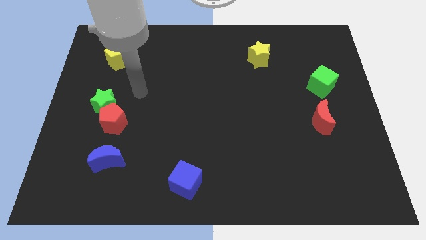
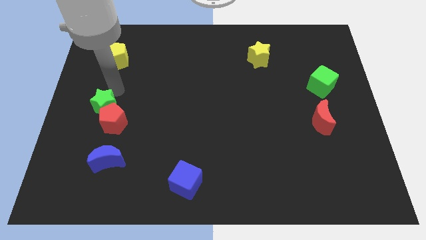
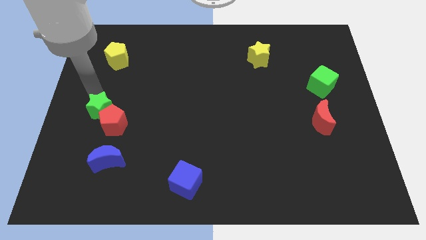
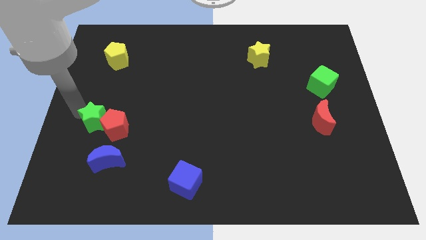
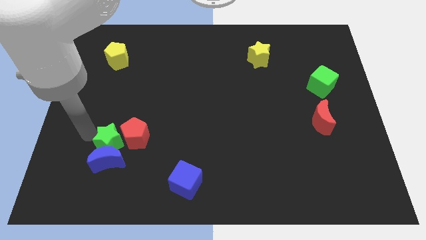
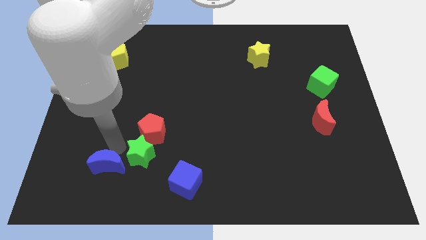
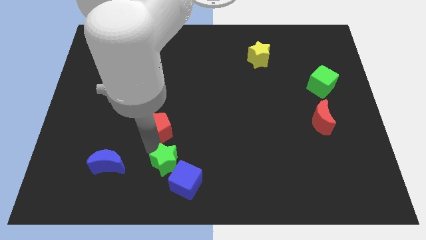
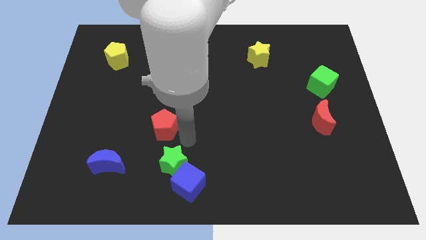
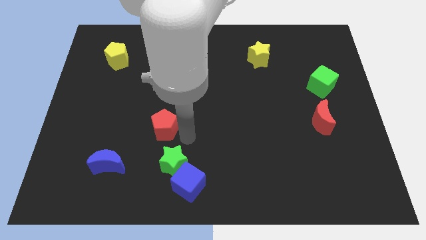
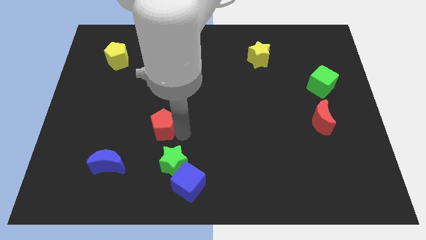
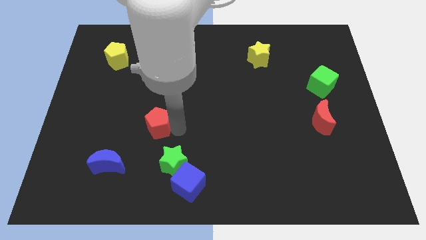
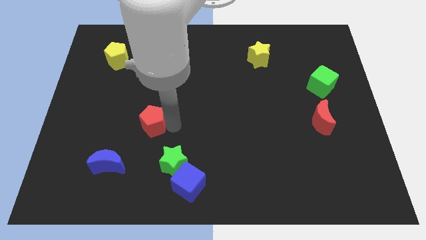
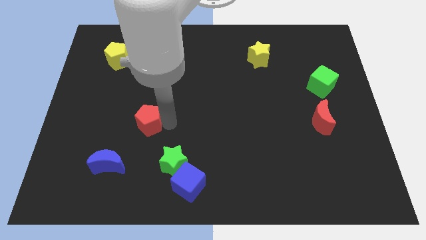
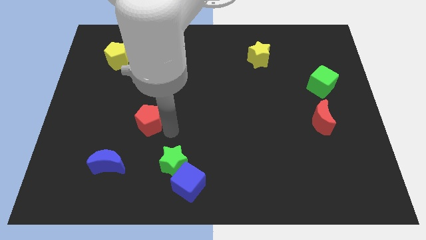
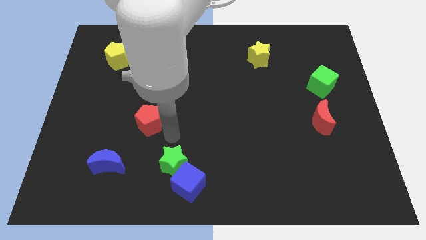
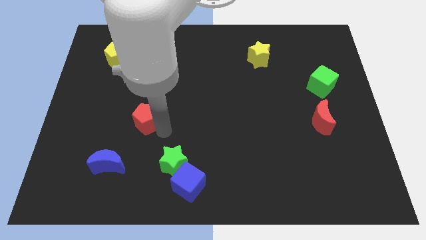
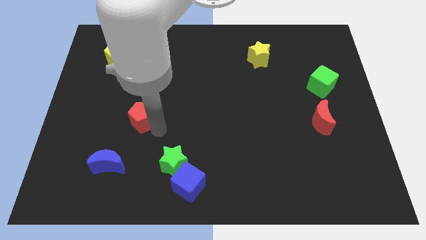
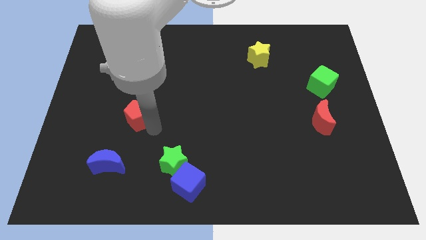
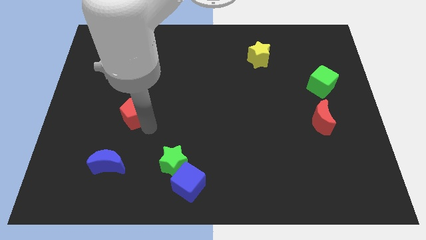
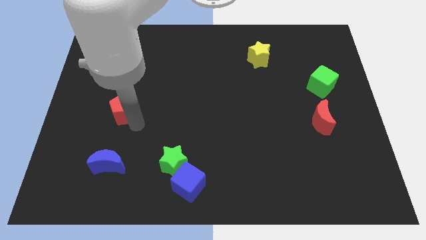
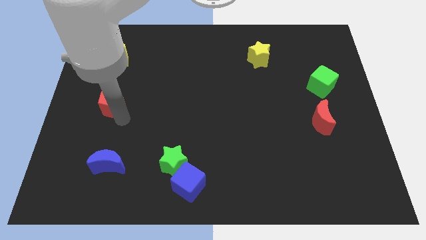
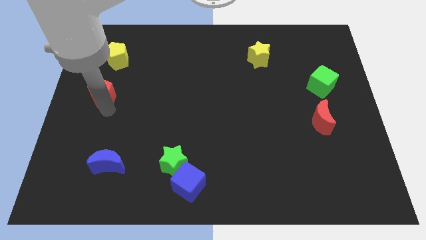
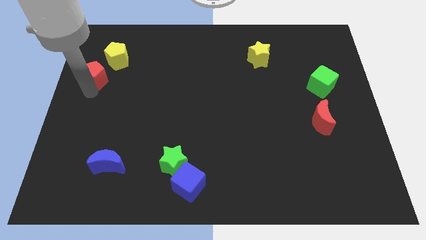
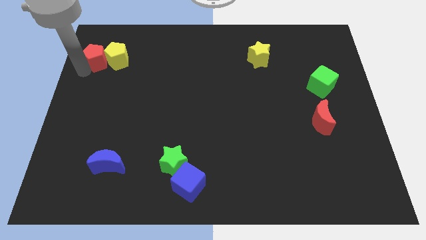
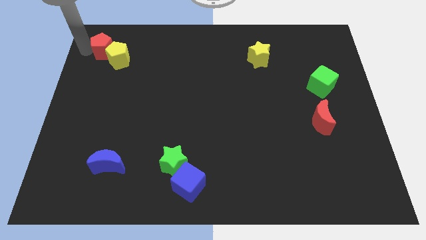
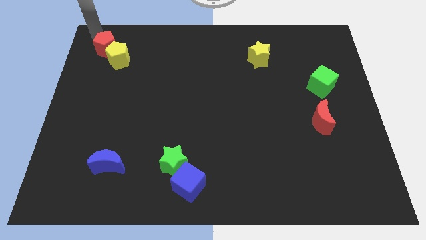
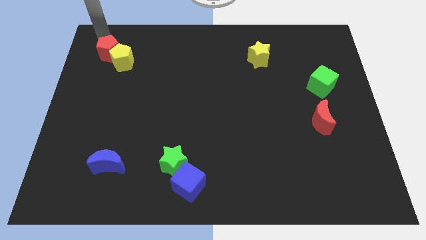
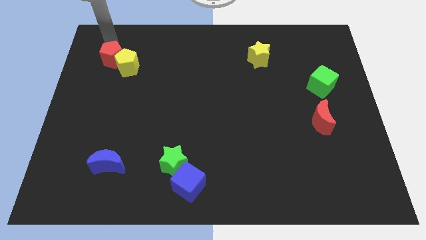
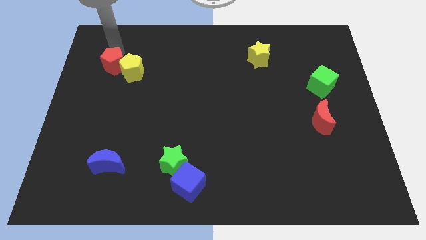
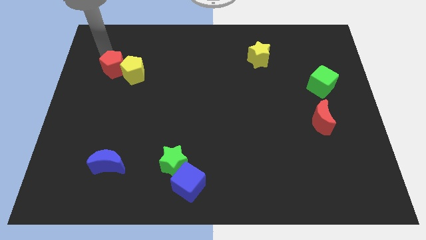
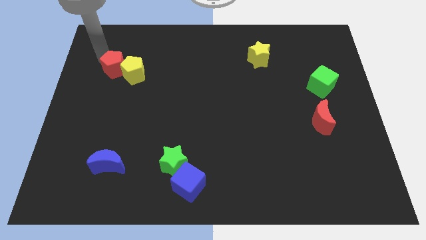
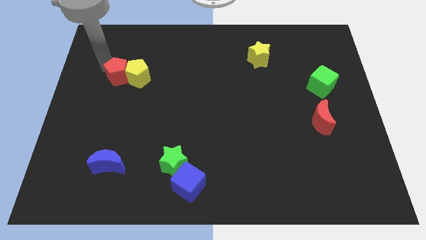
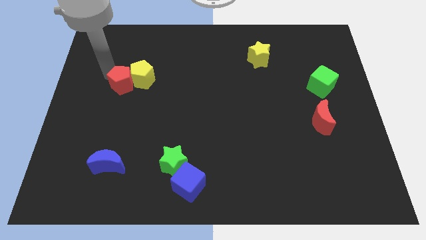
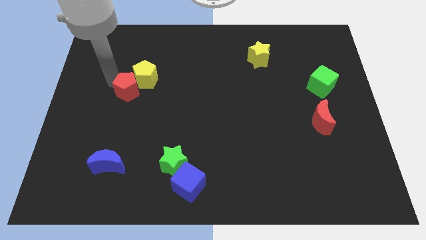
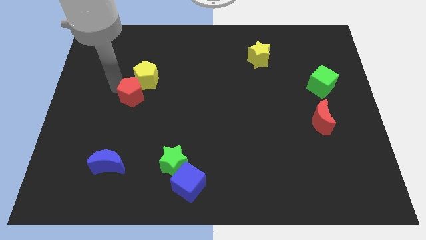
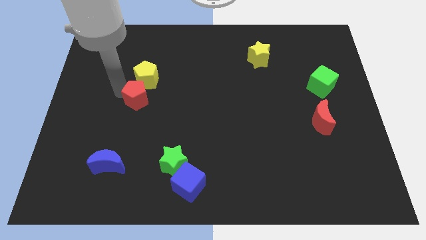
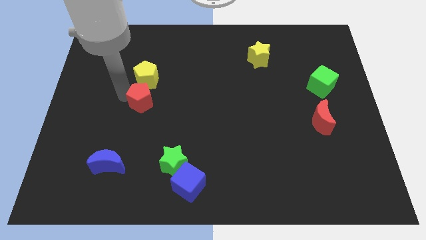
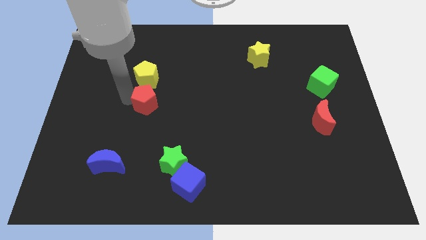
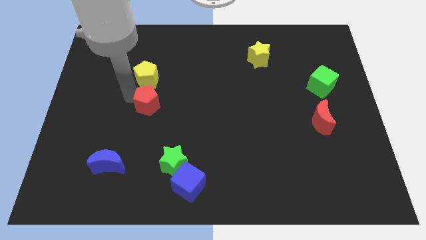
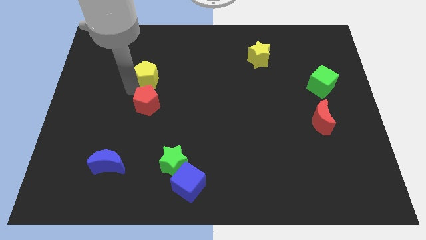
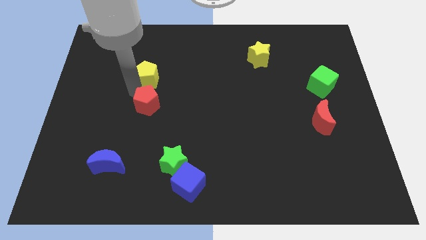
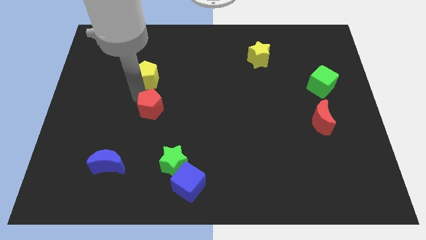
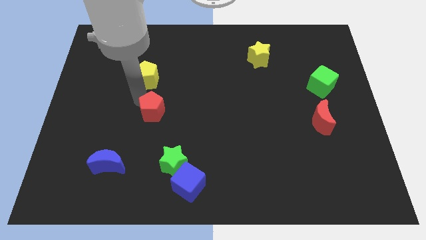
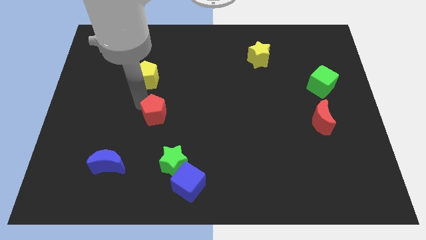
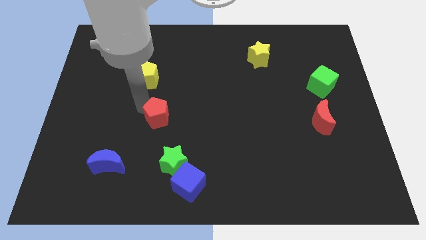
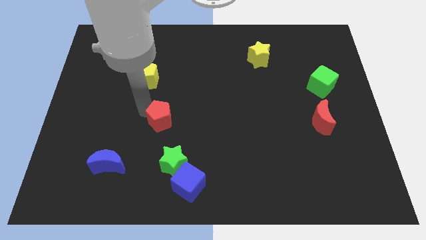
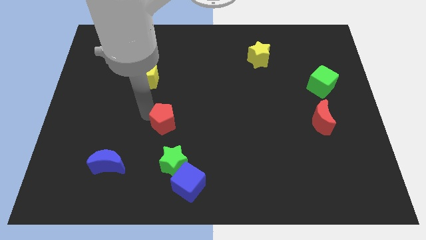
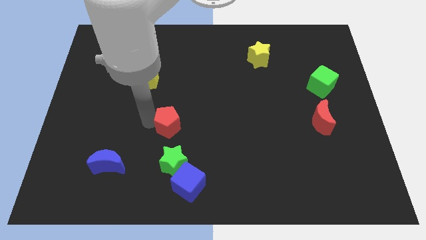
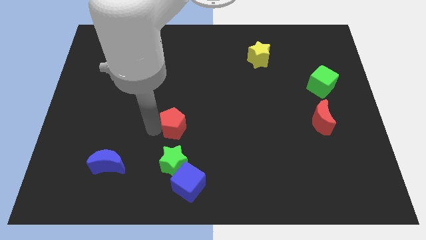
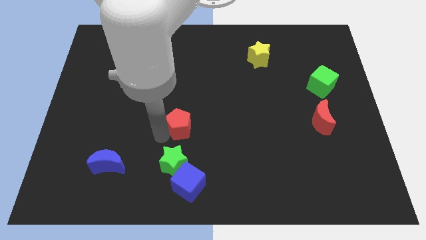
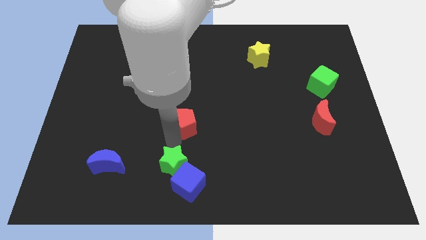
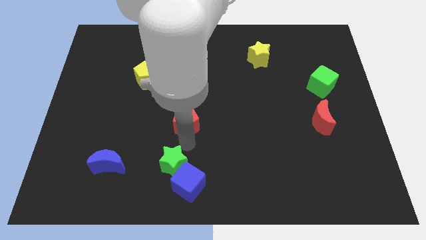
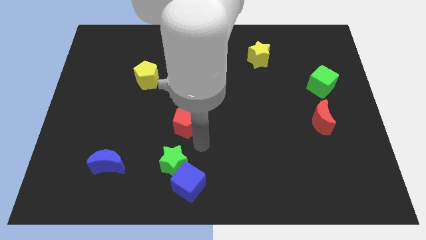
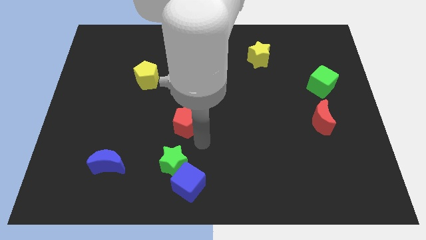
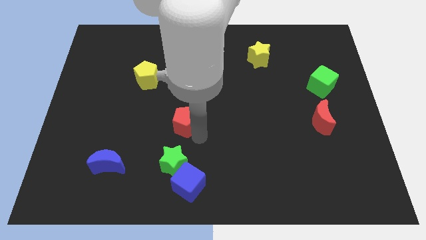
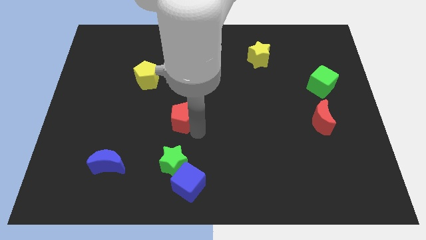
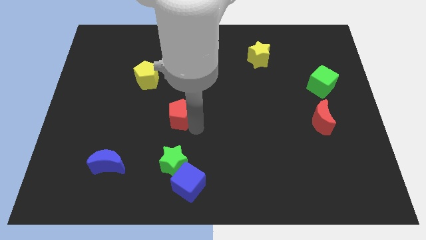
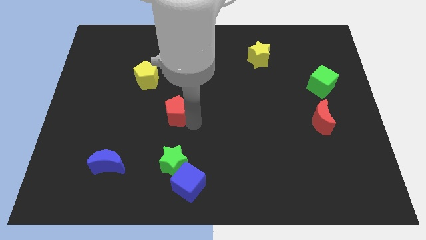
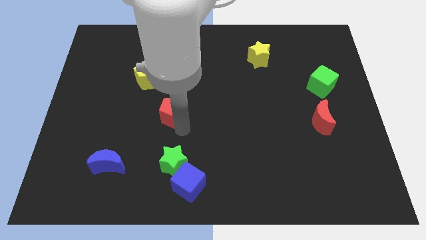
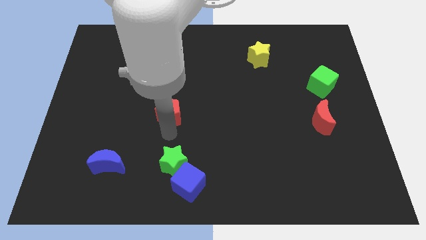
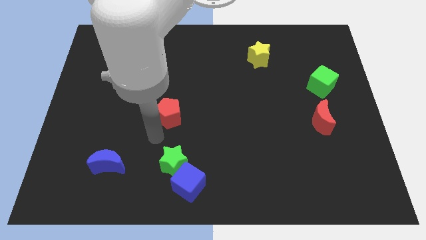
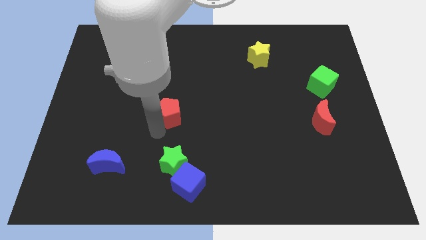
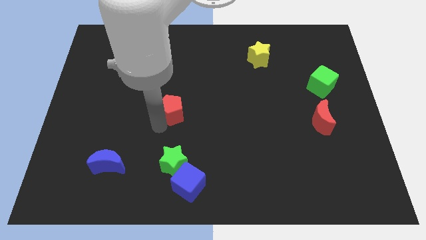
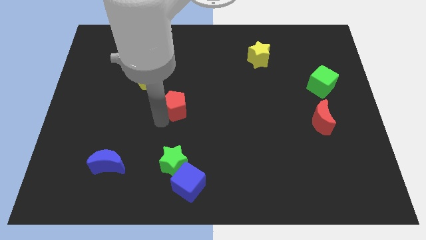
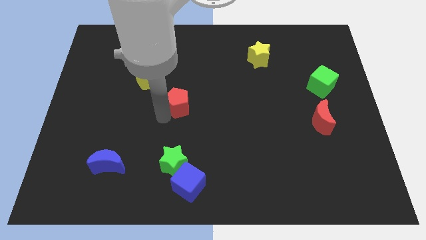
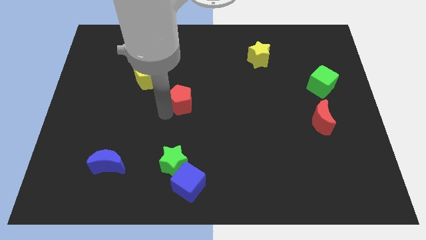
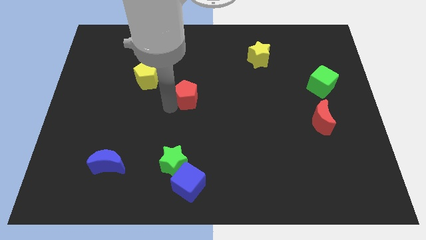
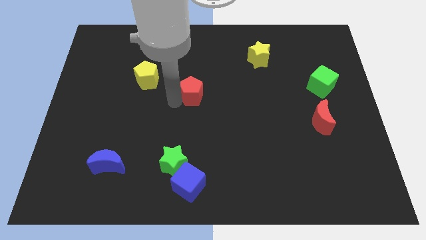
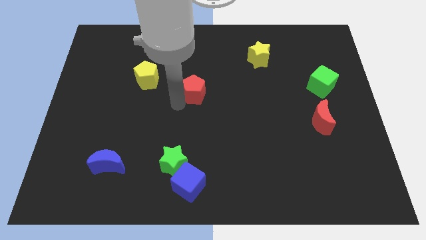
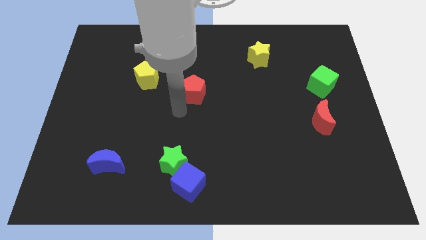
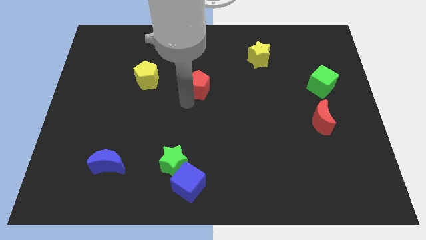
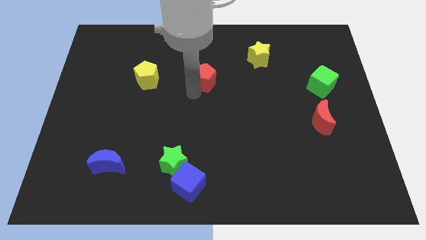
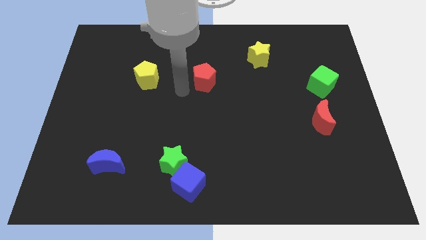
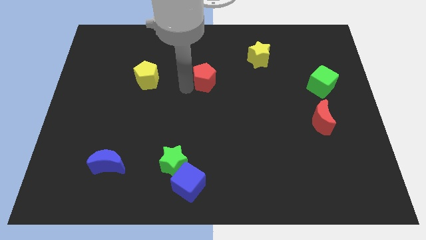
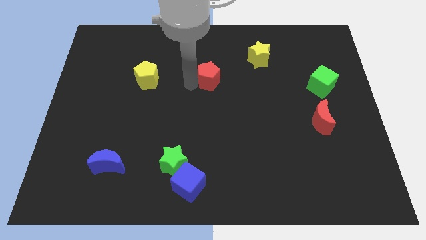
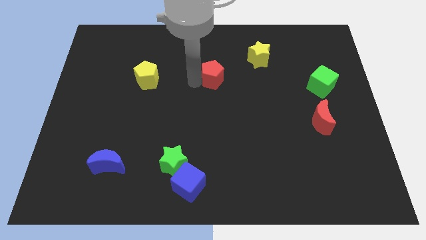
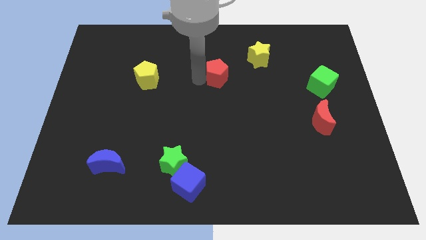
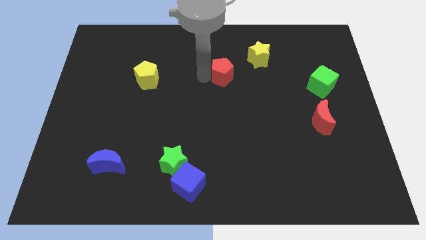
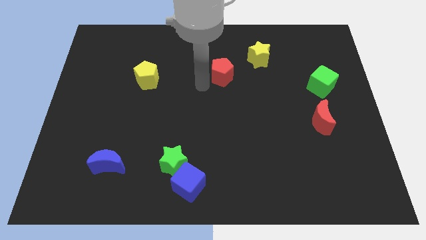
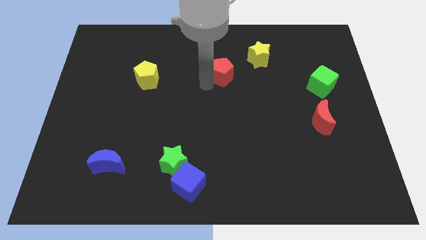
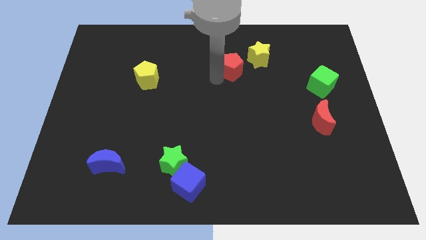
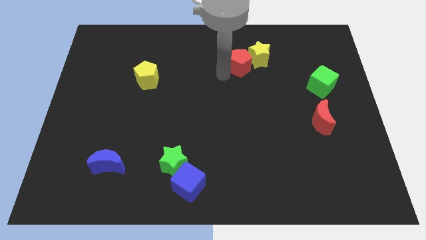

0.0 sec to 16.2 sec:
put the red pentagon to the yellow star
